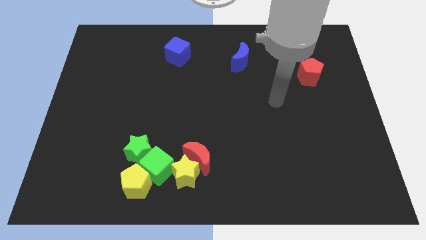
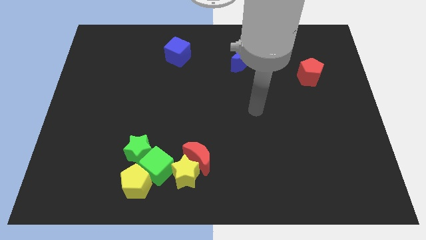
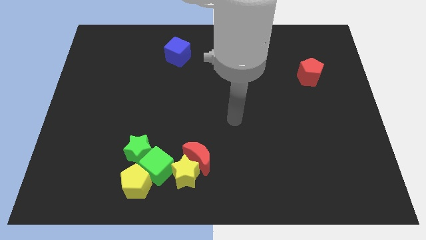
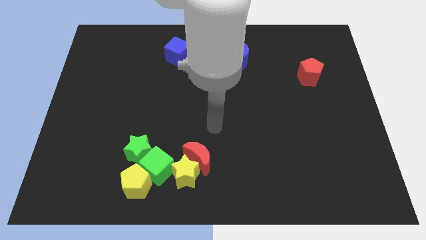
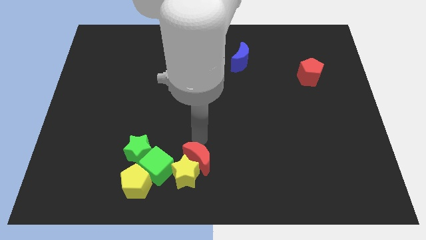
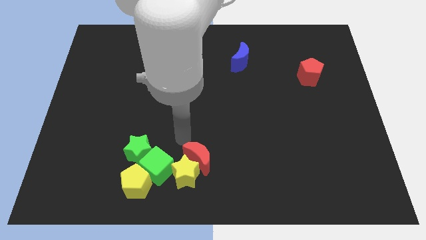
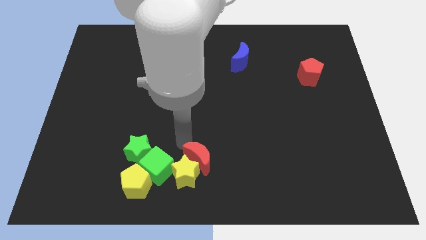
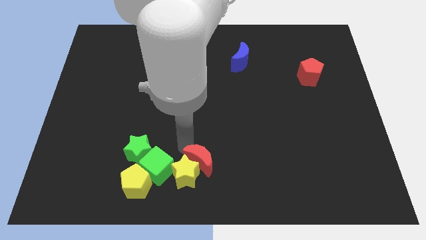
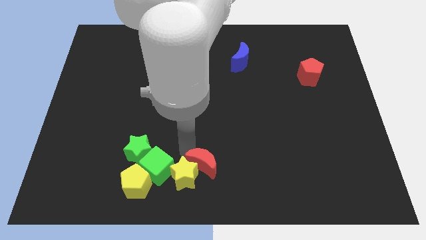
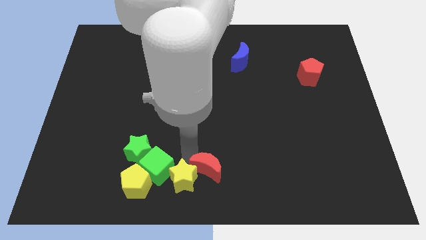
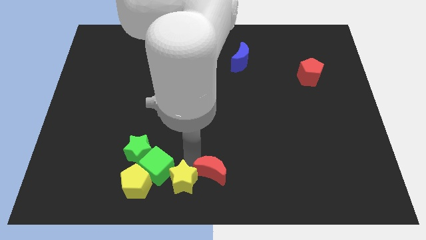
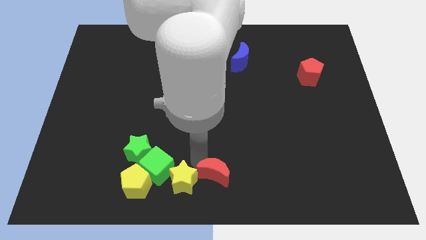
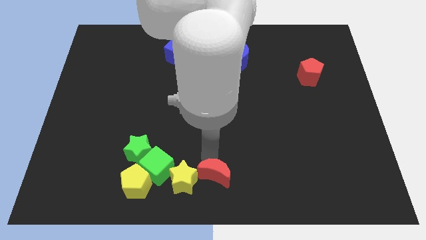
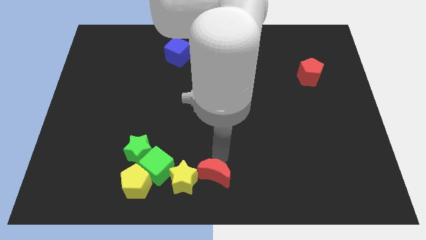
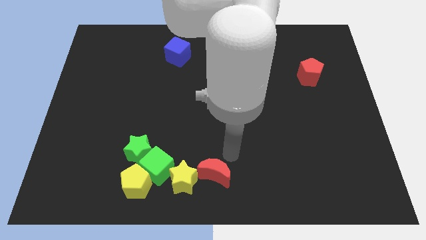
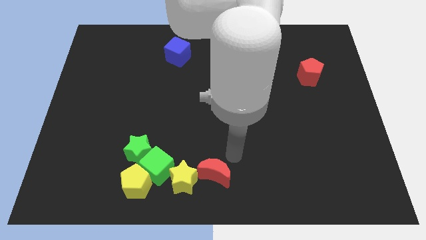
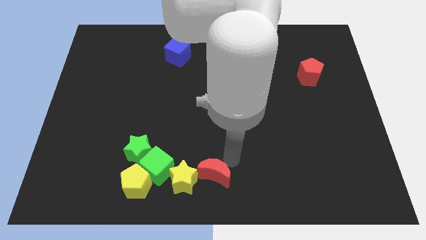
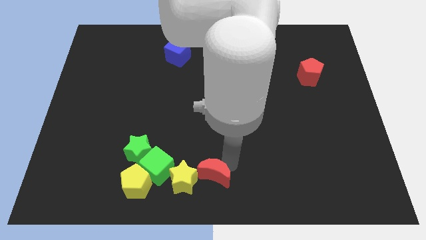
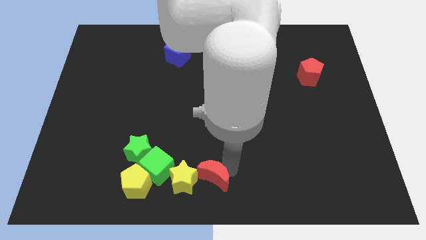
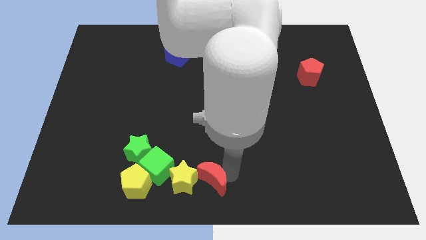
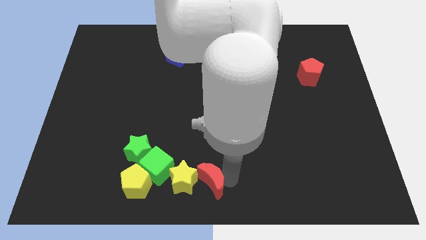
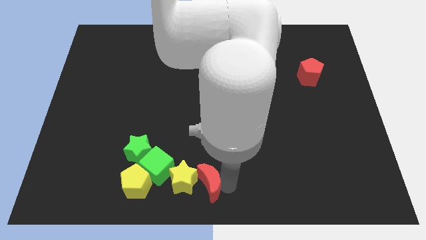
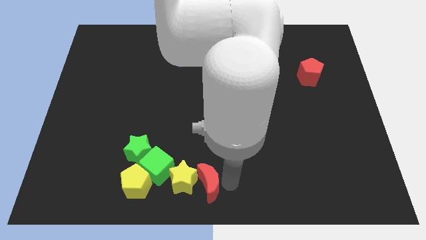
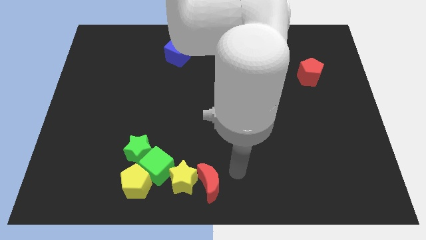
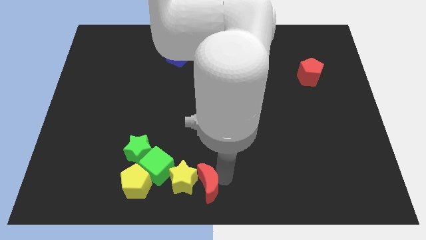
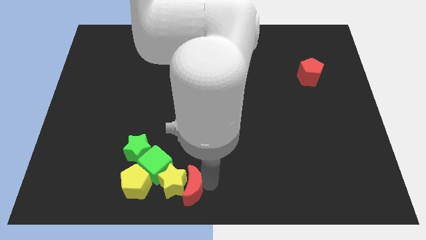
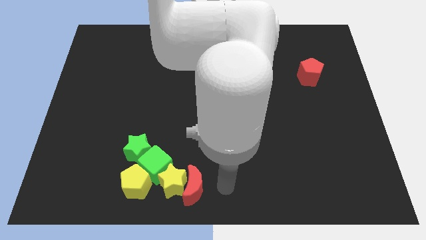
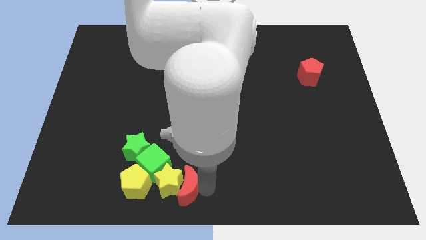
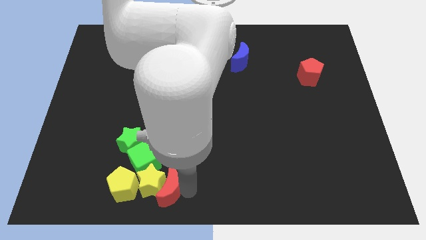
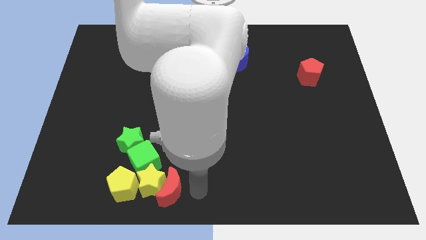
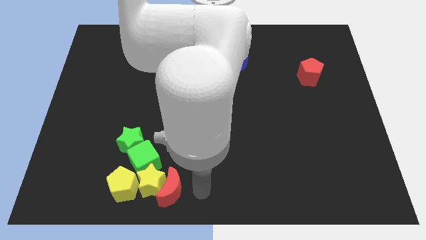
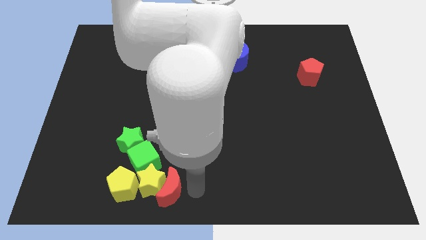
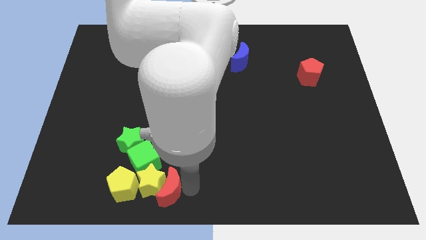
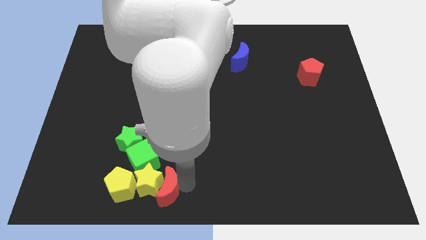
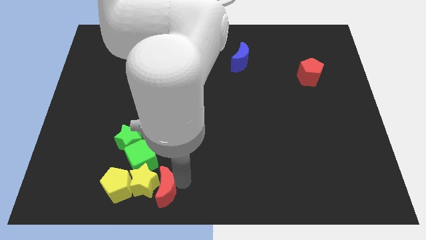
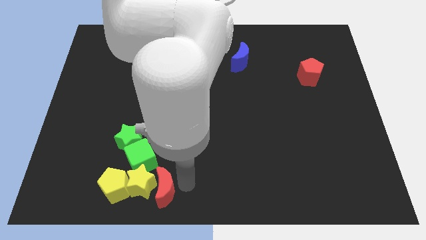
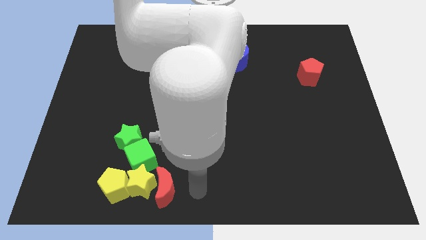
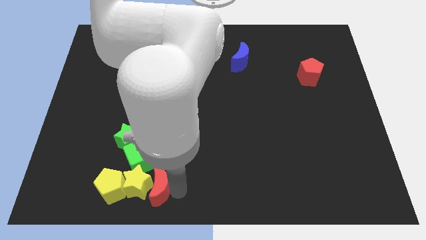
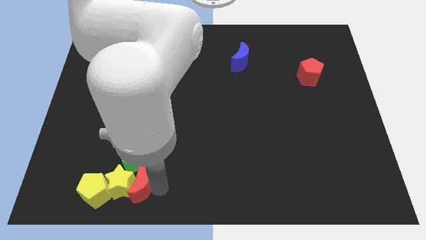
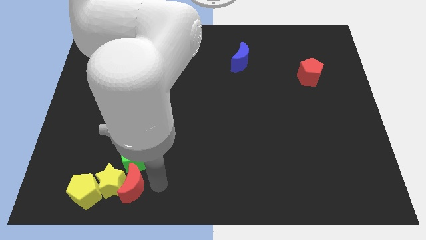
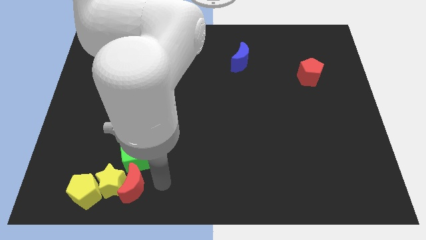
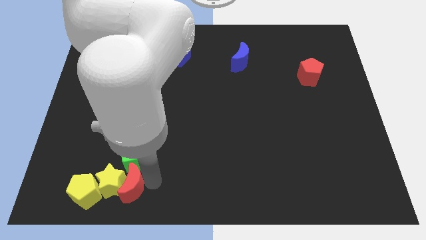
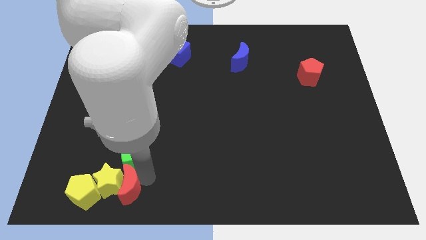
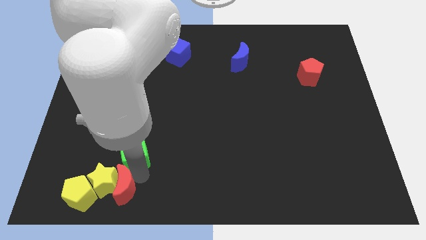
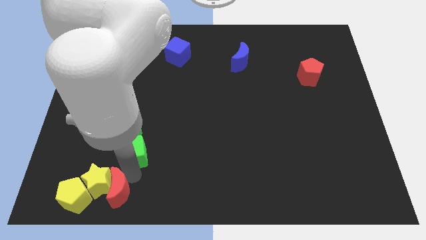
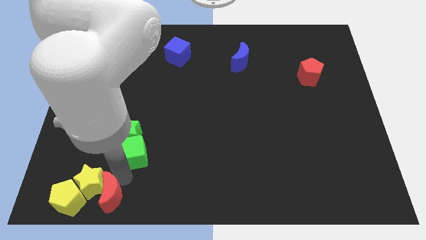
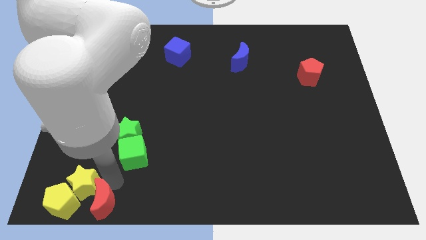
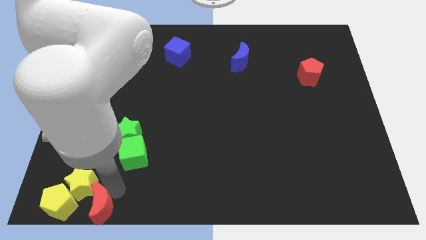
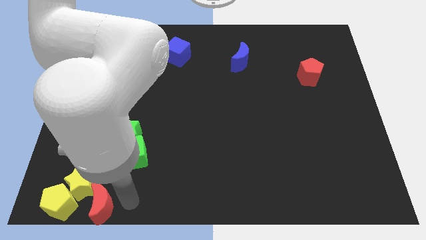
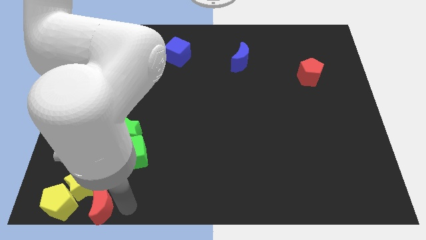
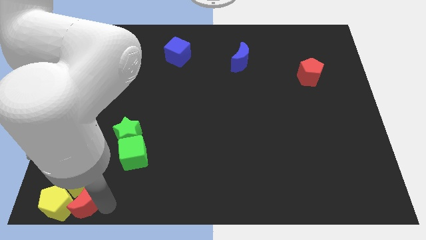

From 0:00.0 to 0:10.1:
slide the red moon next to the yellow pentagon

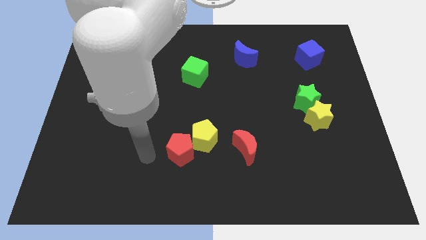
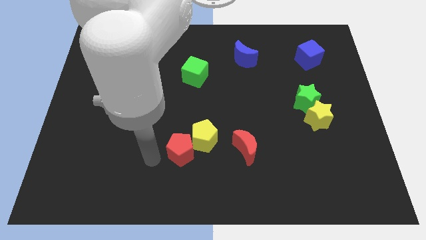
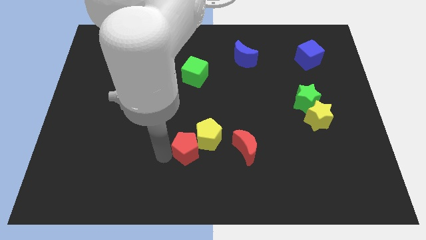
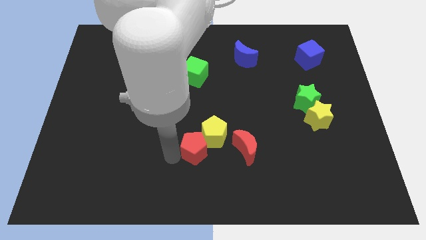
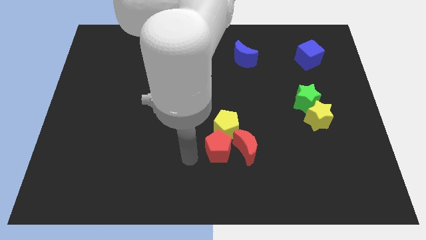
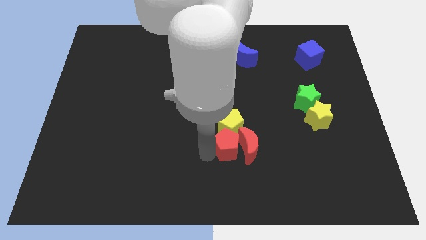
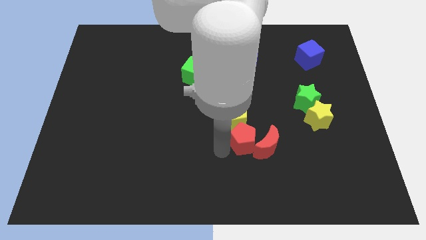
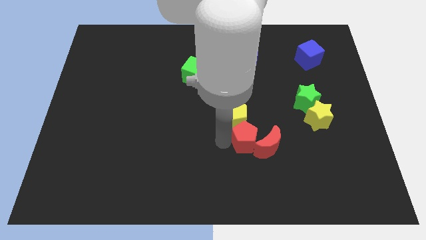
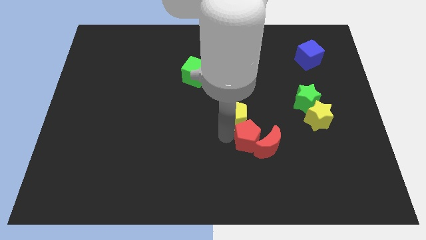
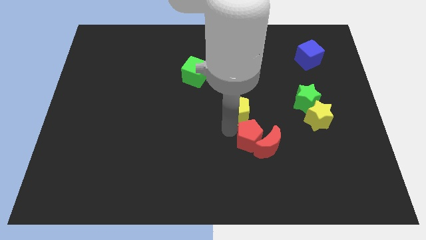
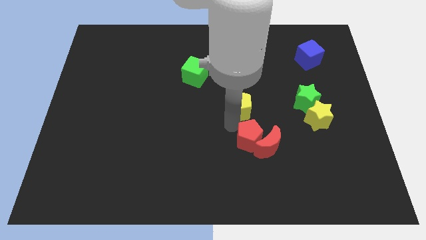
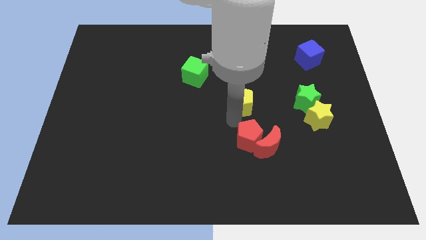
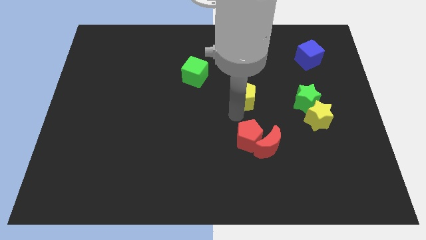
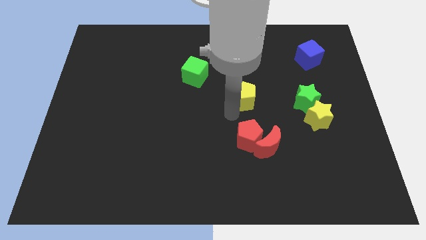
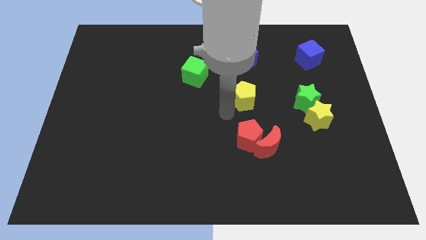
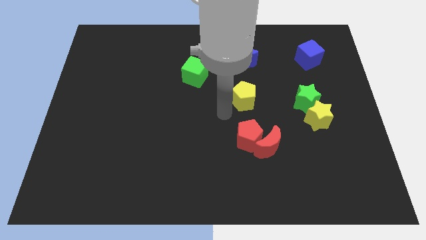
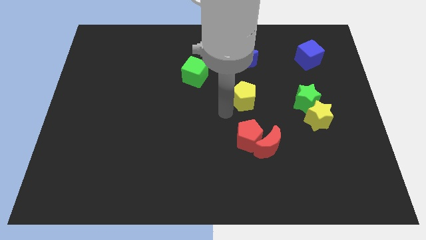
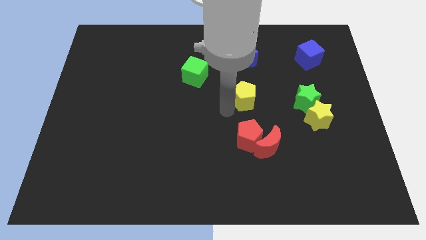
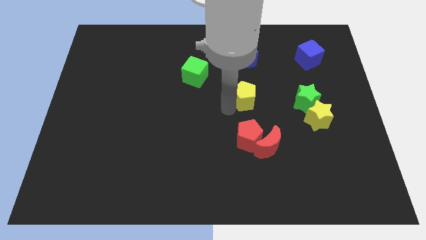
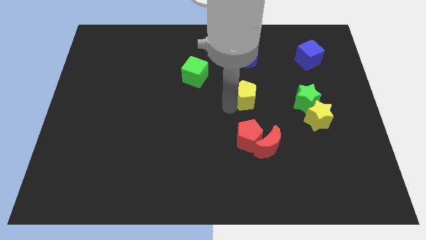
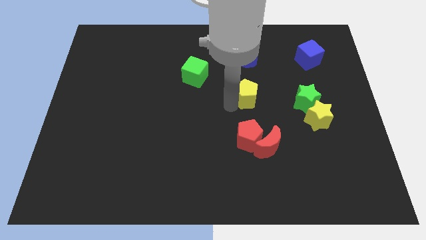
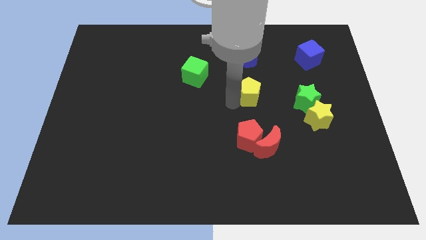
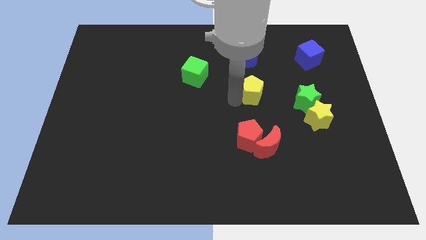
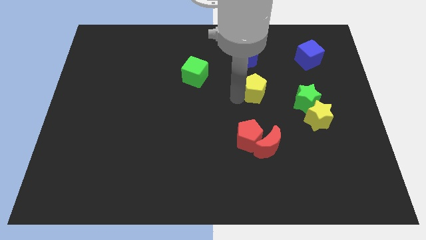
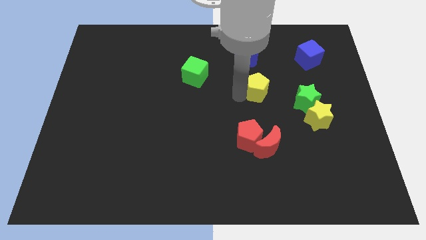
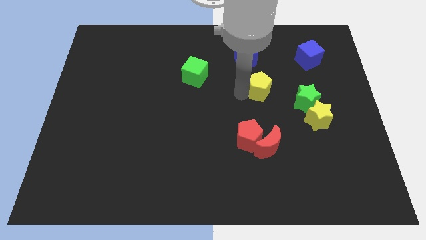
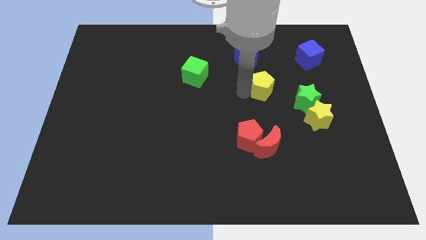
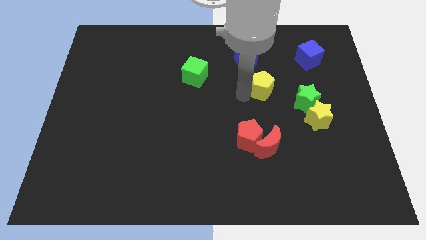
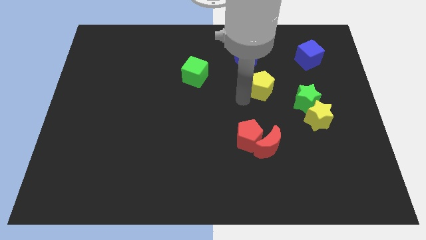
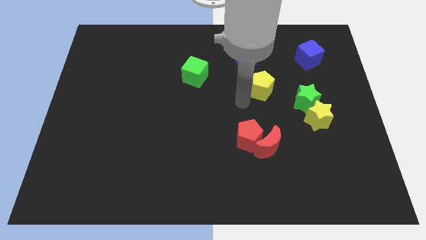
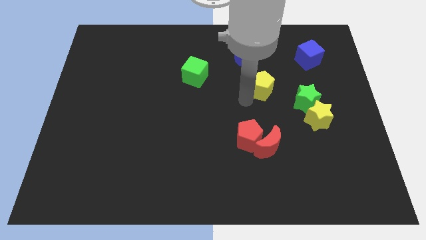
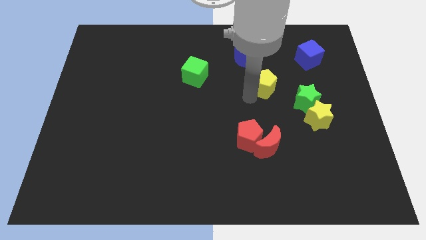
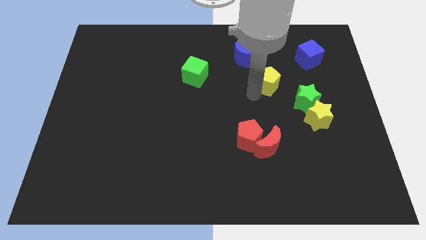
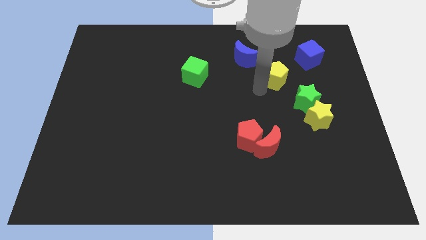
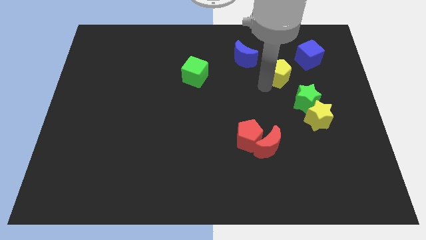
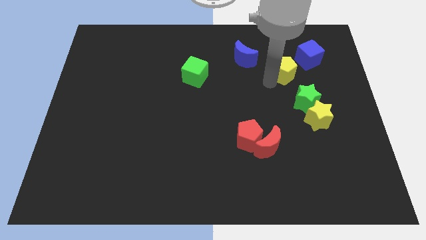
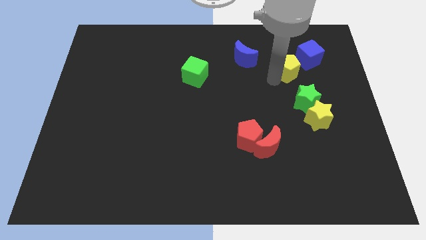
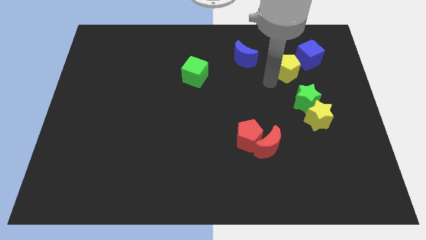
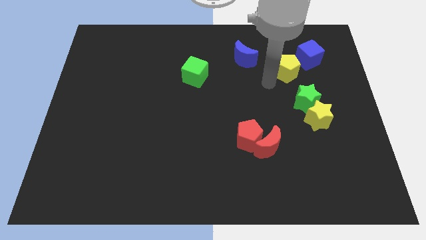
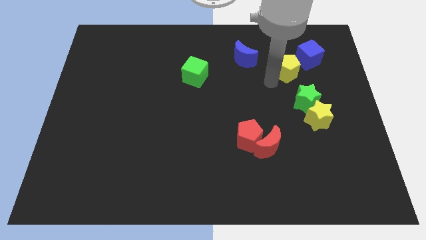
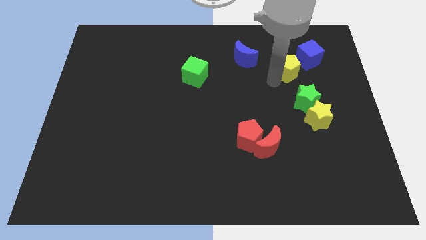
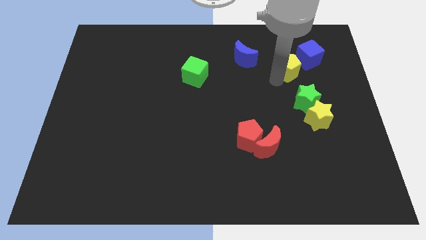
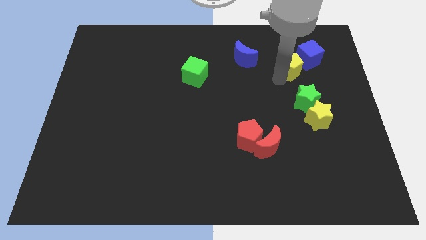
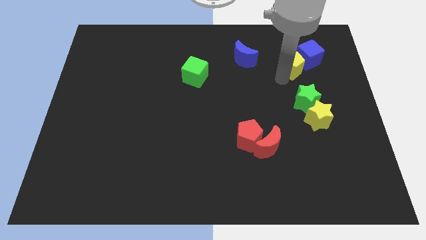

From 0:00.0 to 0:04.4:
put the yellow pentagon close to the blue cube
